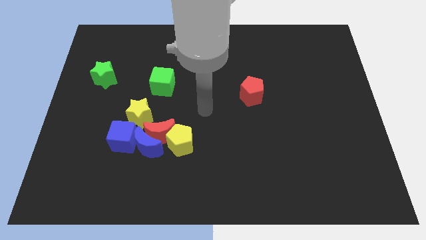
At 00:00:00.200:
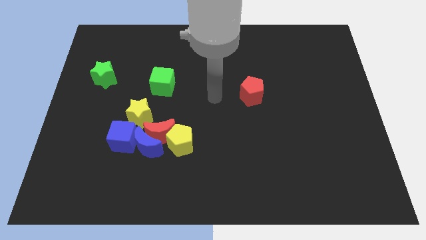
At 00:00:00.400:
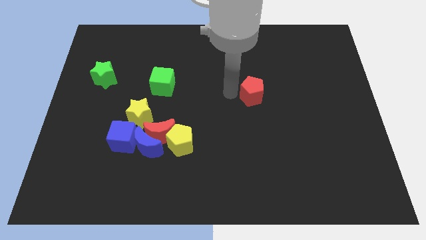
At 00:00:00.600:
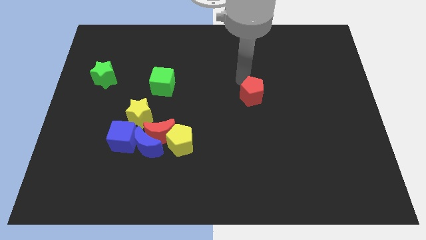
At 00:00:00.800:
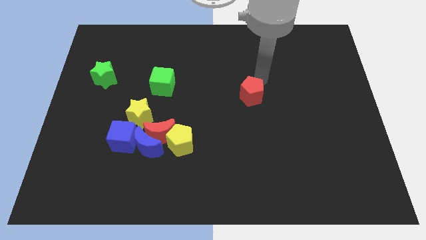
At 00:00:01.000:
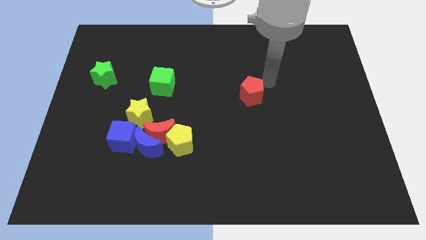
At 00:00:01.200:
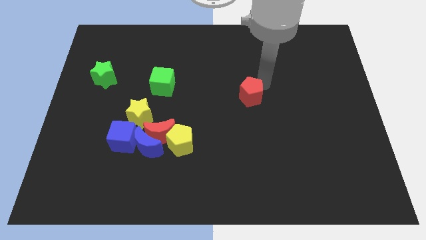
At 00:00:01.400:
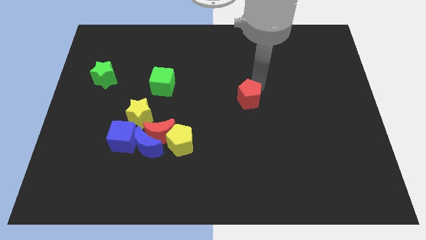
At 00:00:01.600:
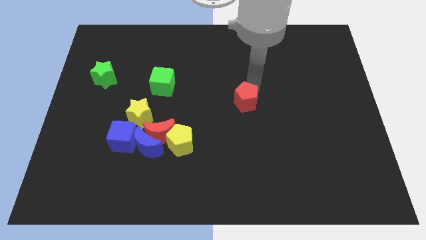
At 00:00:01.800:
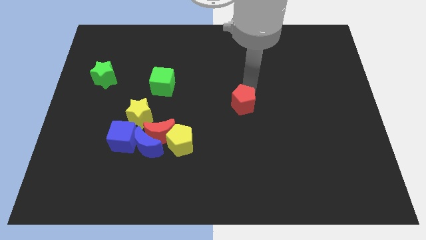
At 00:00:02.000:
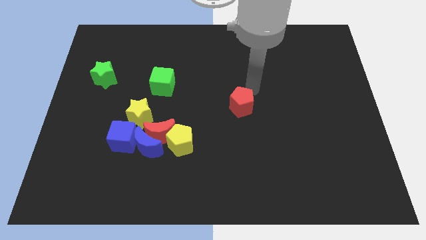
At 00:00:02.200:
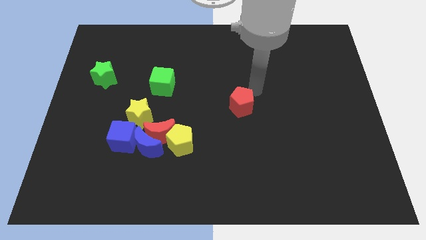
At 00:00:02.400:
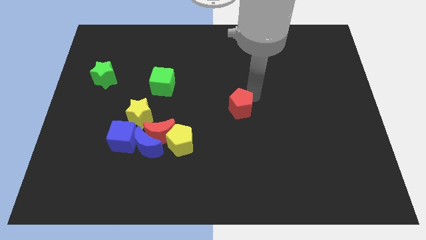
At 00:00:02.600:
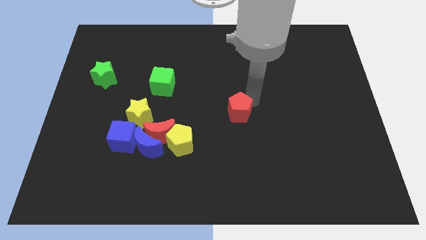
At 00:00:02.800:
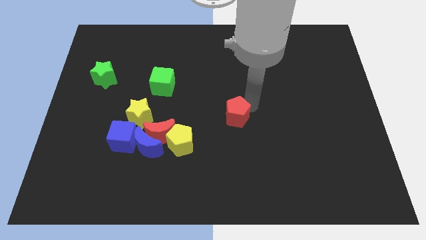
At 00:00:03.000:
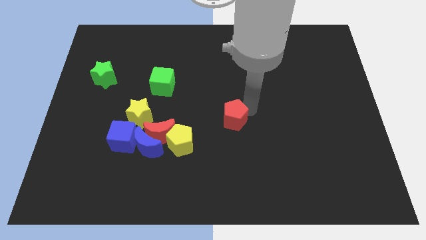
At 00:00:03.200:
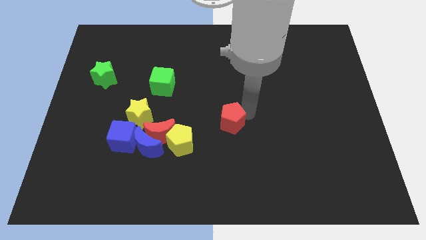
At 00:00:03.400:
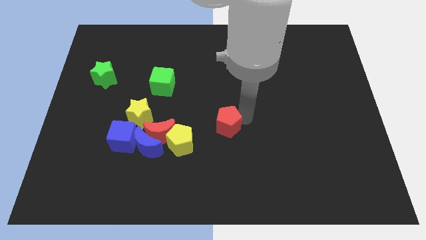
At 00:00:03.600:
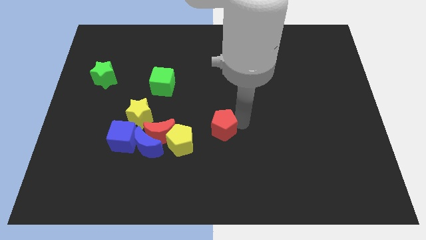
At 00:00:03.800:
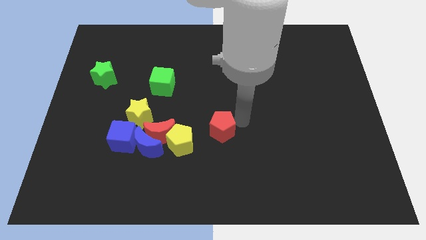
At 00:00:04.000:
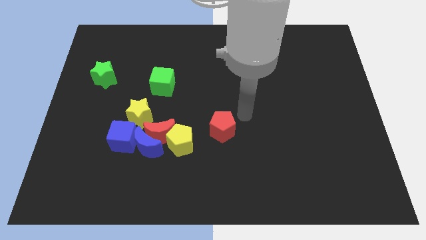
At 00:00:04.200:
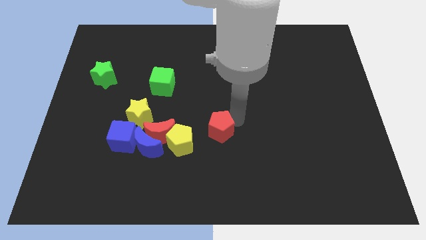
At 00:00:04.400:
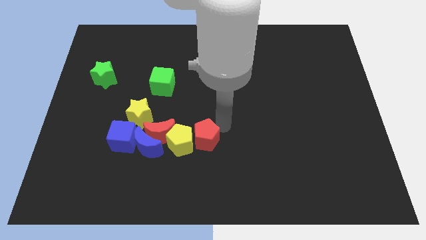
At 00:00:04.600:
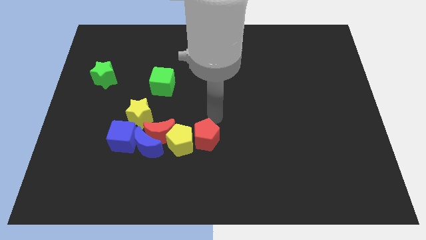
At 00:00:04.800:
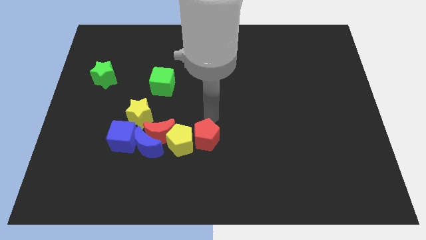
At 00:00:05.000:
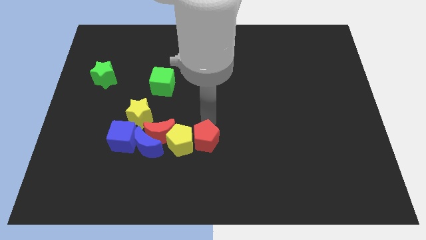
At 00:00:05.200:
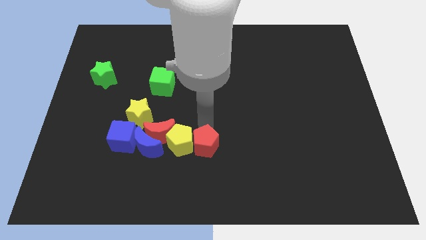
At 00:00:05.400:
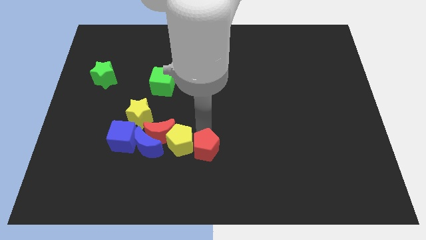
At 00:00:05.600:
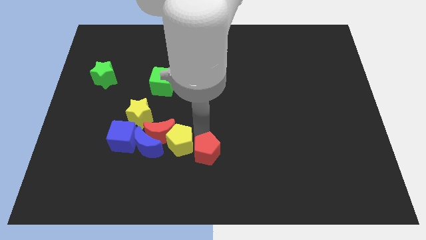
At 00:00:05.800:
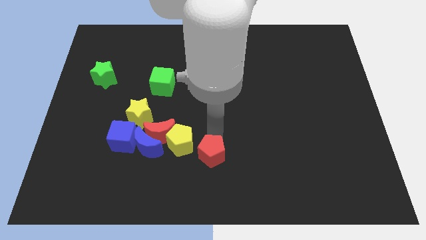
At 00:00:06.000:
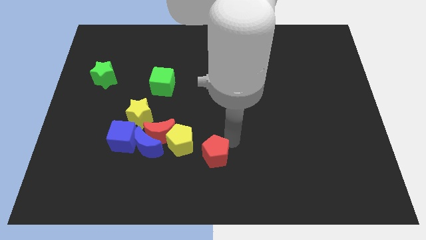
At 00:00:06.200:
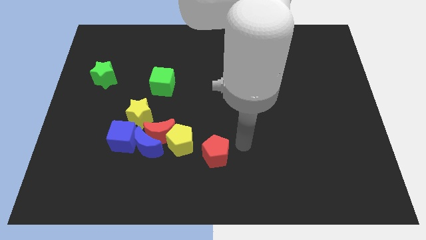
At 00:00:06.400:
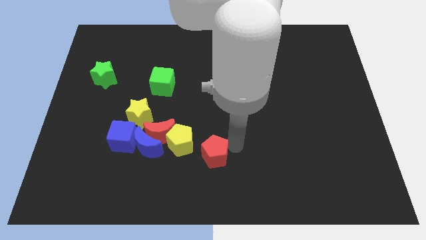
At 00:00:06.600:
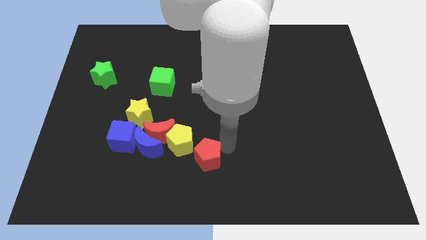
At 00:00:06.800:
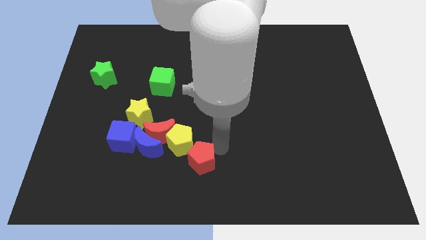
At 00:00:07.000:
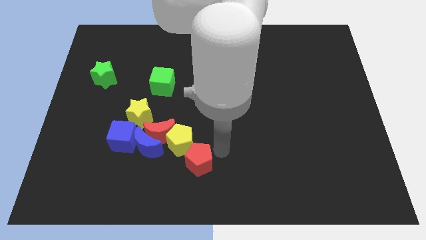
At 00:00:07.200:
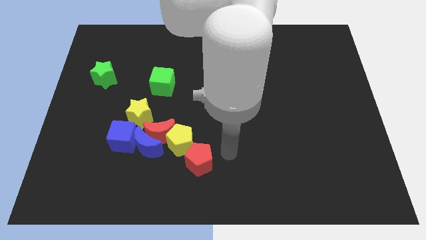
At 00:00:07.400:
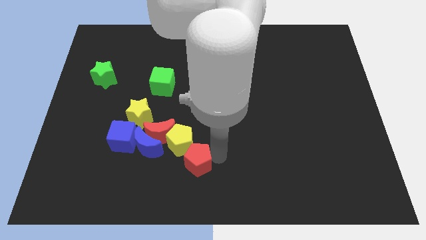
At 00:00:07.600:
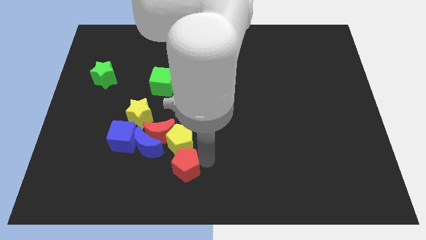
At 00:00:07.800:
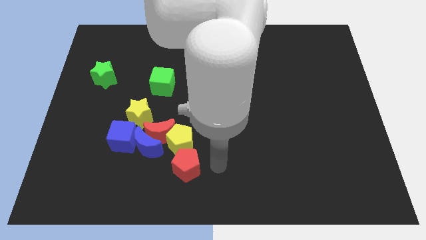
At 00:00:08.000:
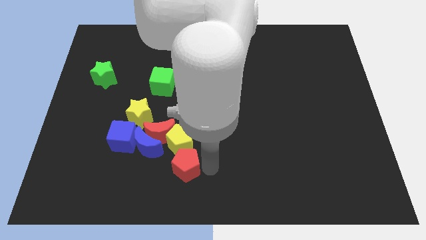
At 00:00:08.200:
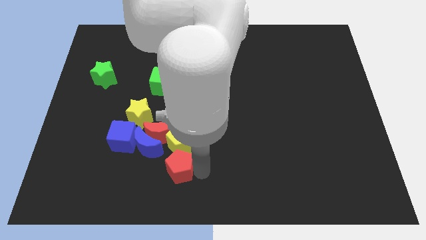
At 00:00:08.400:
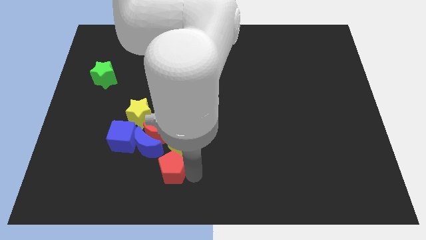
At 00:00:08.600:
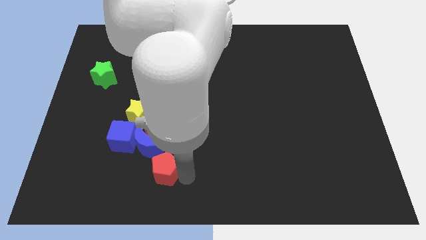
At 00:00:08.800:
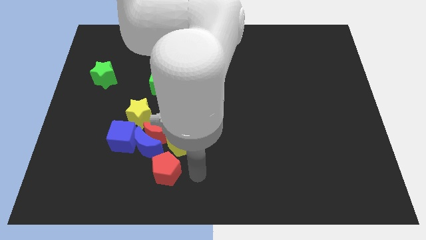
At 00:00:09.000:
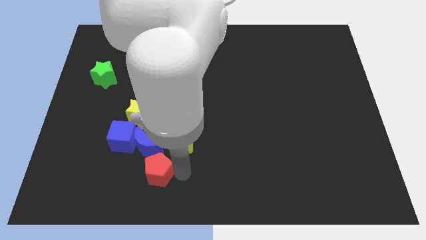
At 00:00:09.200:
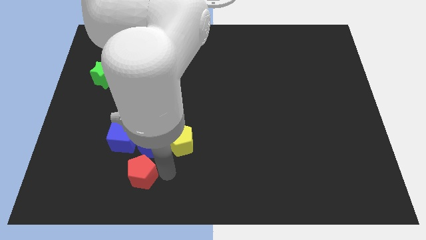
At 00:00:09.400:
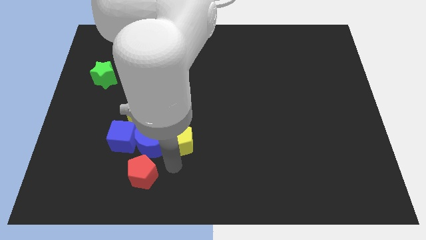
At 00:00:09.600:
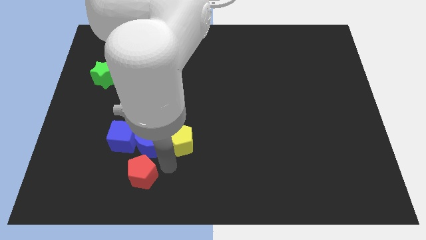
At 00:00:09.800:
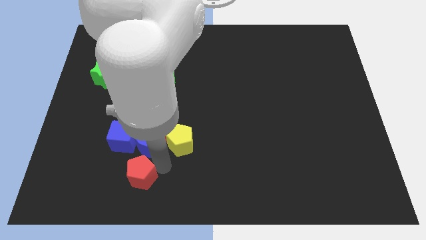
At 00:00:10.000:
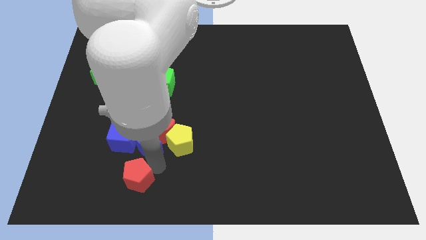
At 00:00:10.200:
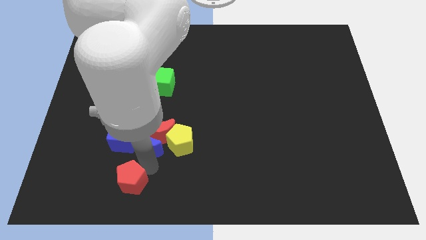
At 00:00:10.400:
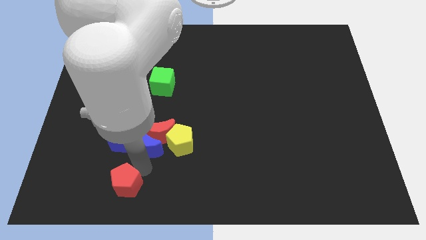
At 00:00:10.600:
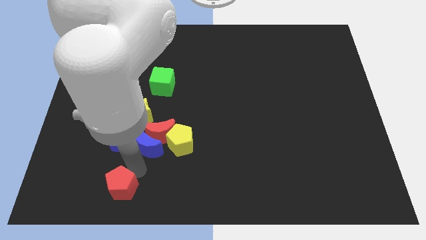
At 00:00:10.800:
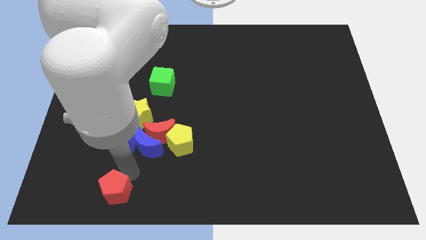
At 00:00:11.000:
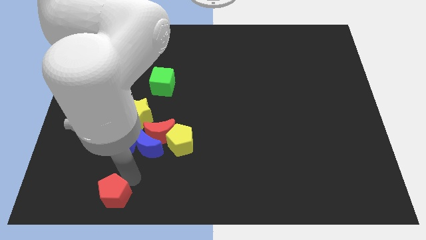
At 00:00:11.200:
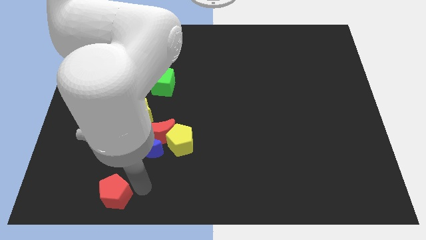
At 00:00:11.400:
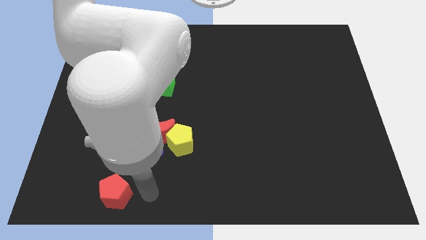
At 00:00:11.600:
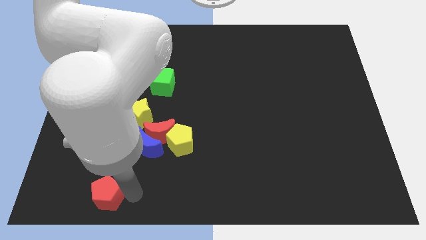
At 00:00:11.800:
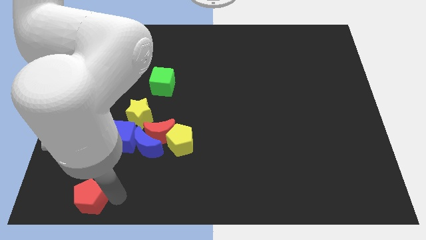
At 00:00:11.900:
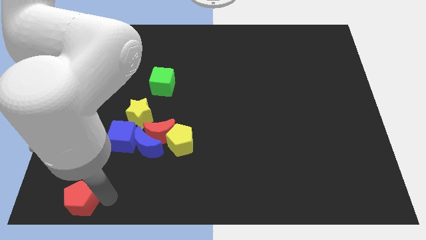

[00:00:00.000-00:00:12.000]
slide the red pentagon to the lower left corner
